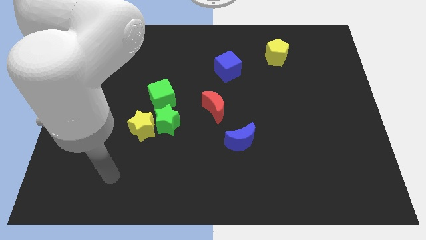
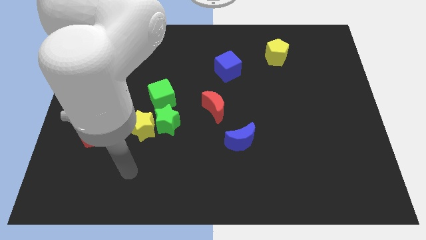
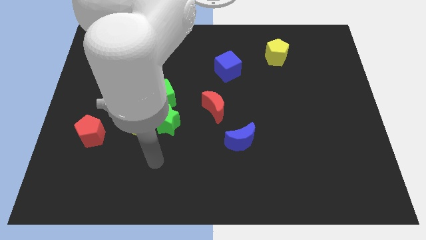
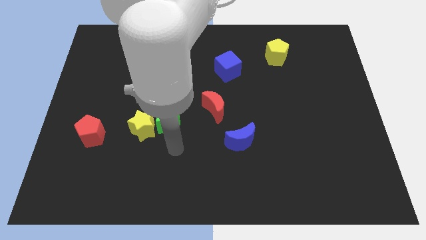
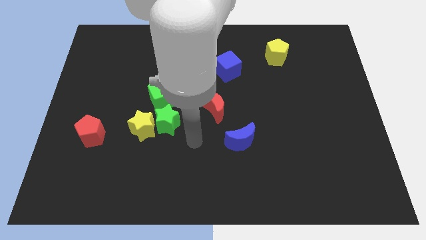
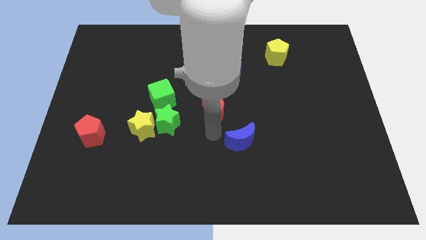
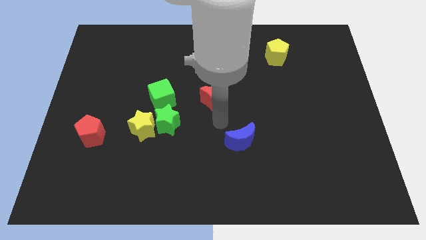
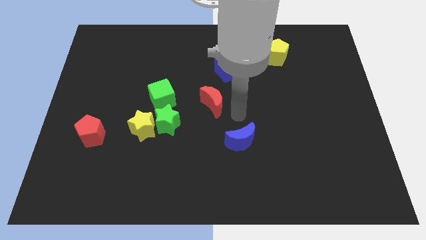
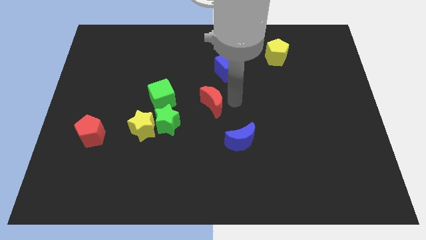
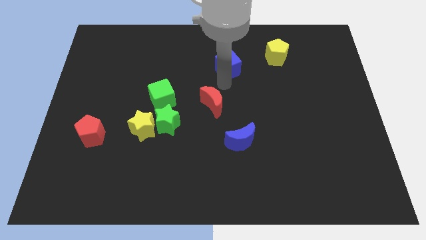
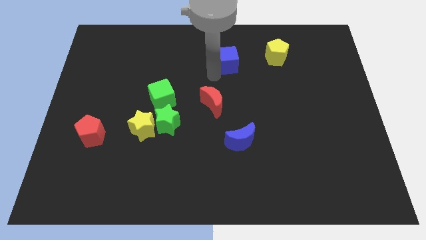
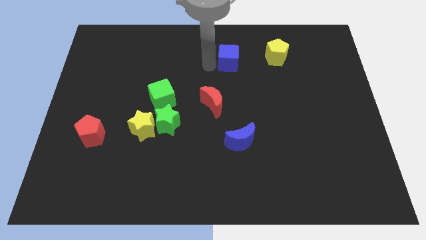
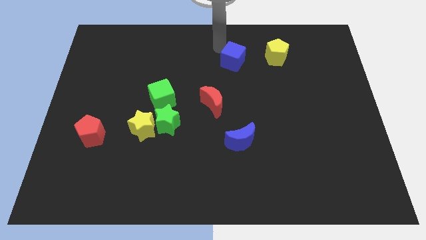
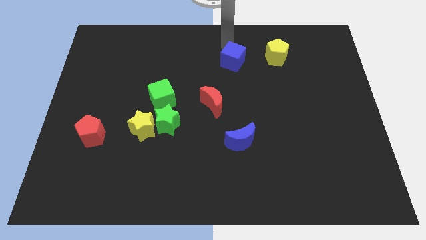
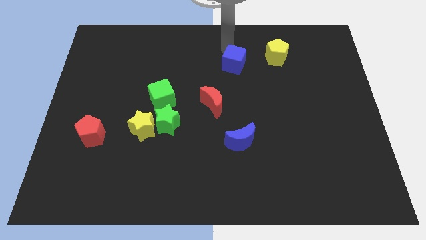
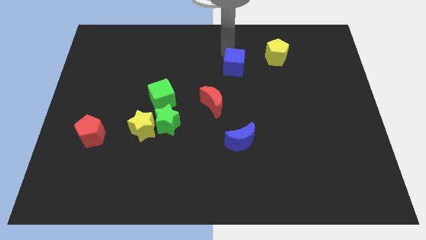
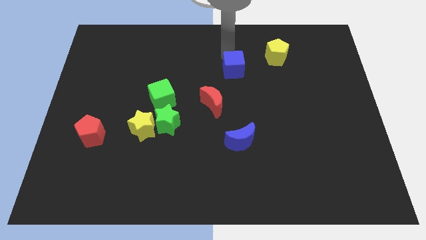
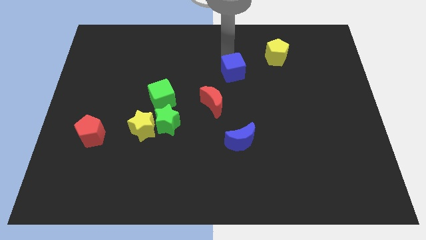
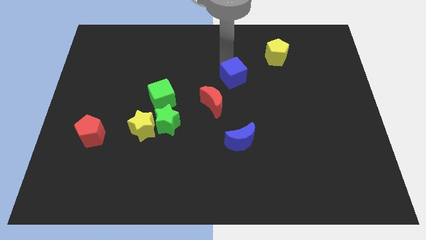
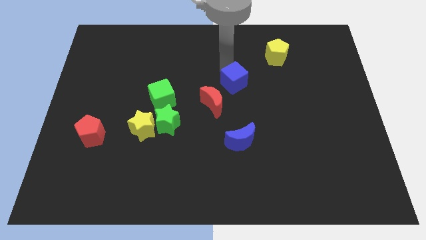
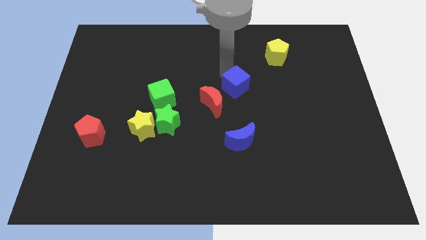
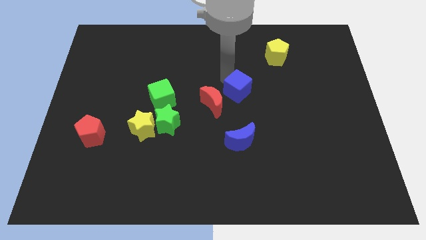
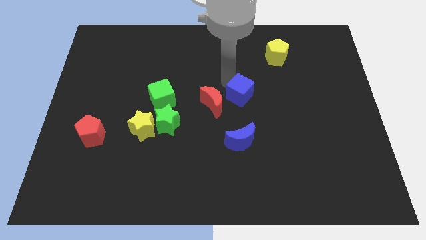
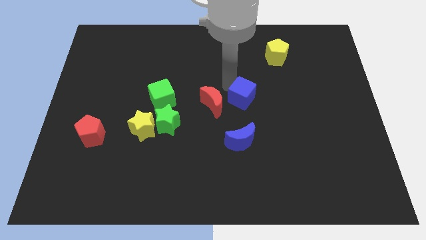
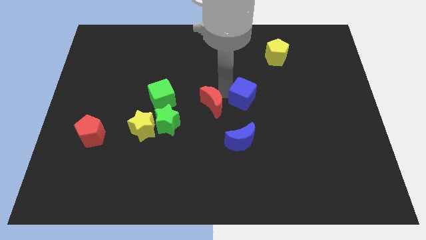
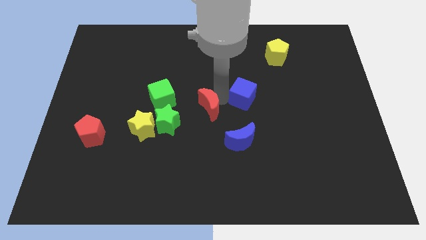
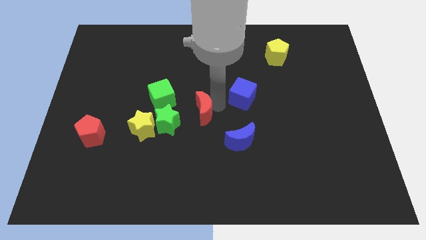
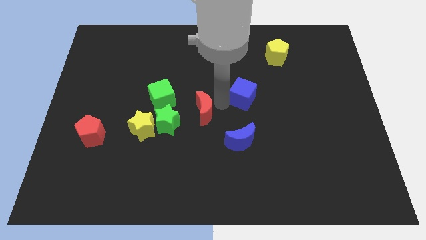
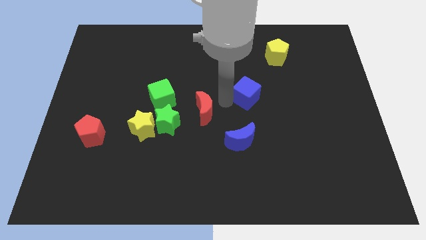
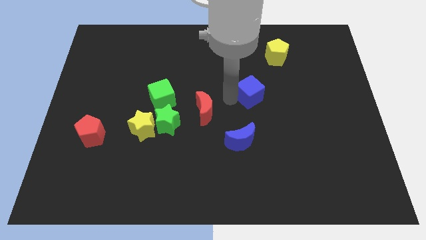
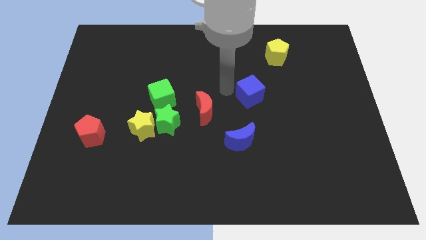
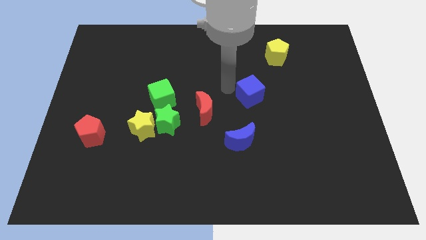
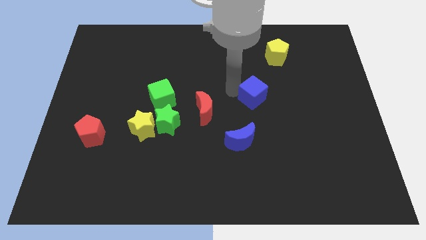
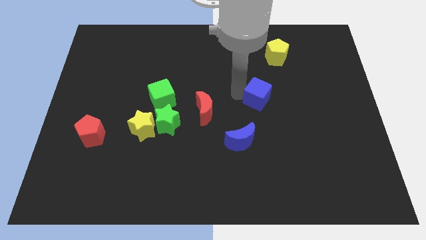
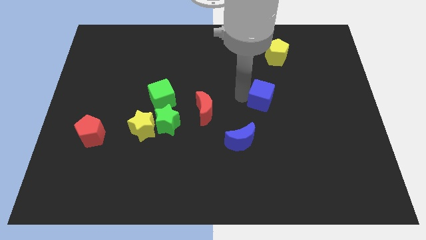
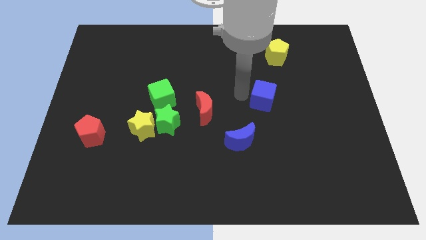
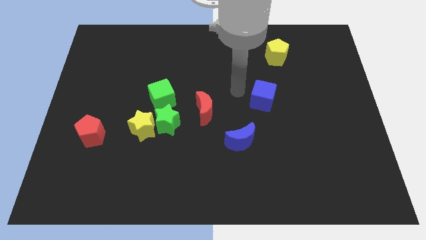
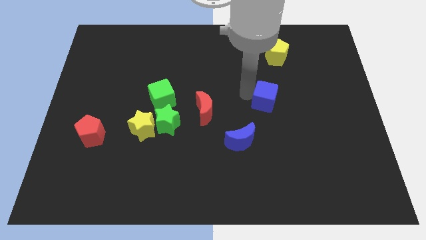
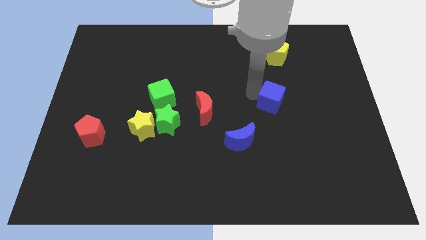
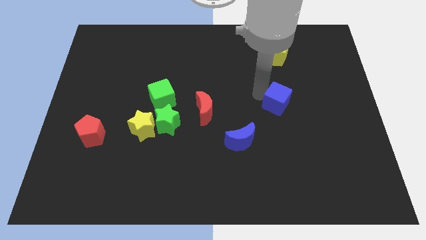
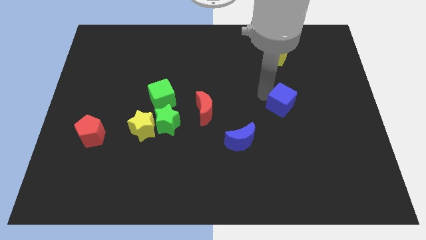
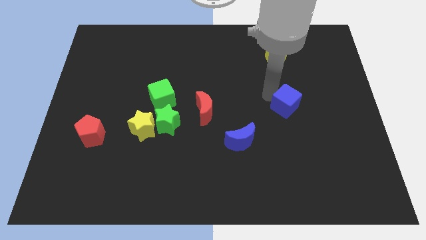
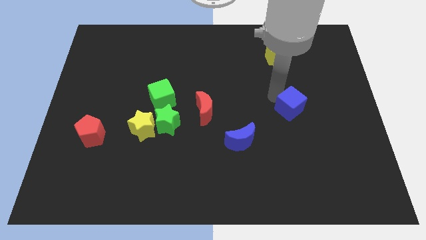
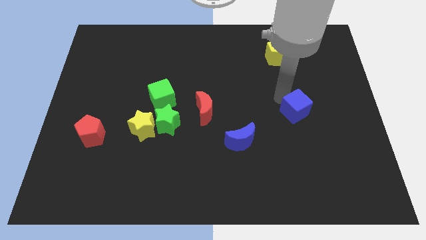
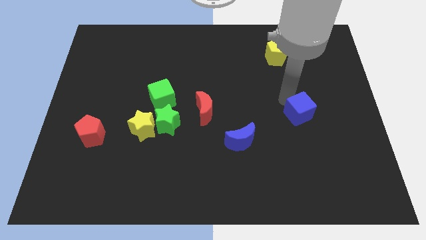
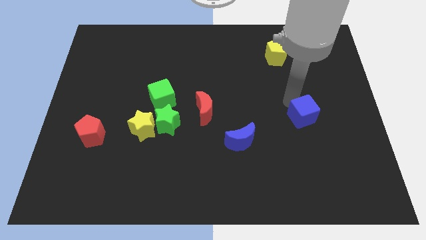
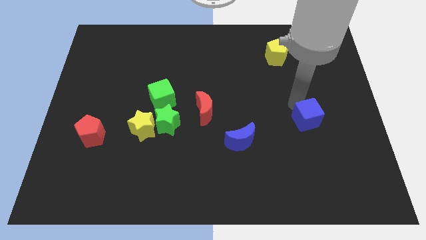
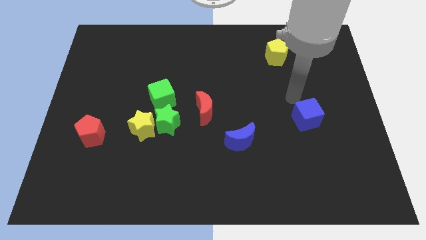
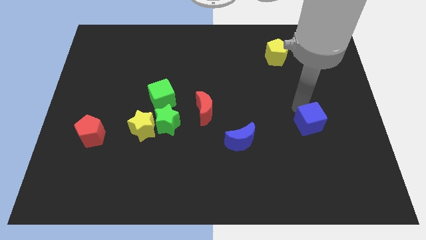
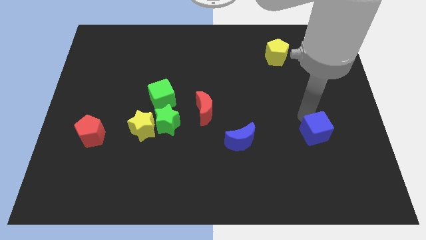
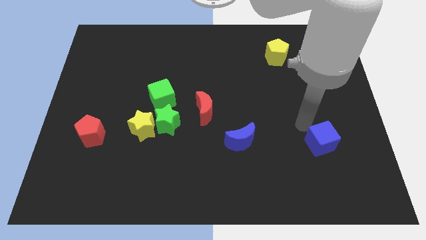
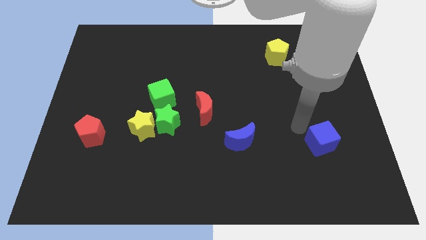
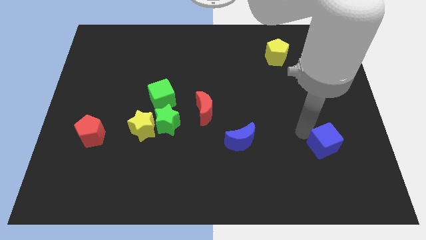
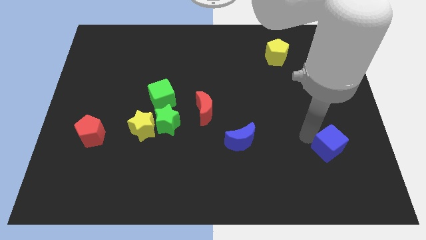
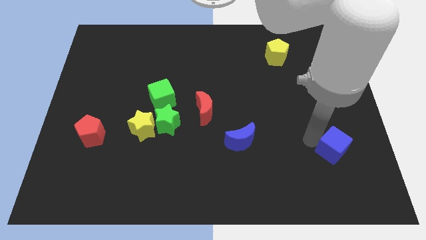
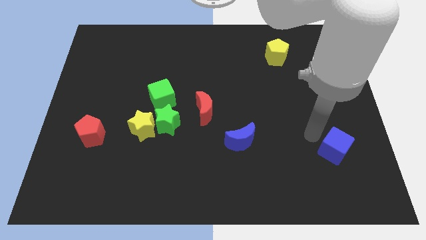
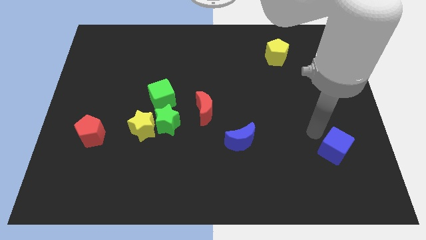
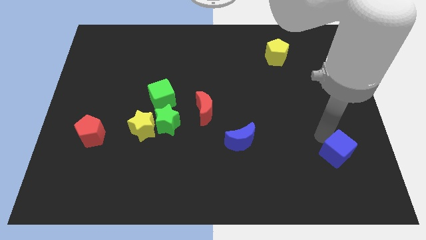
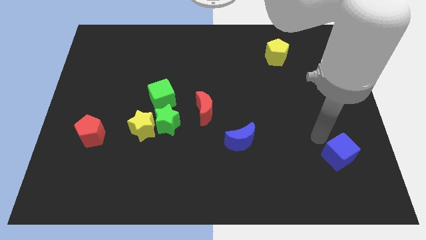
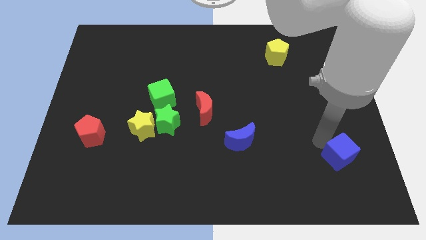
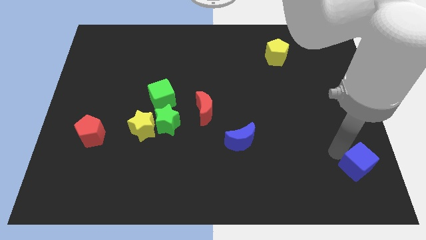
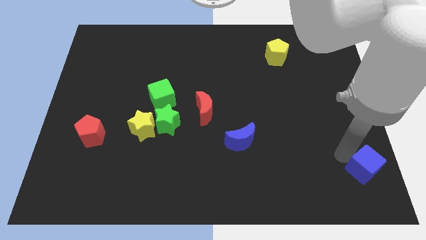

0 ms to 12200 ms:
put the blue cube to the bottom right corner
